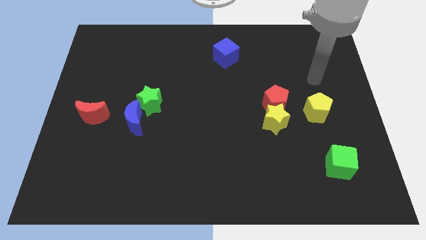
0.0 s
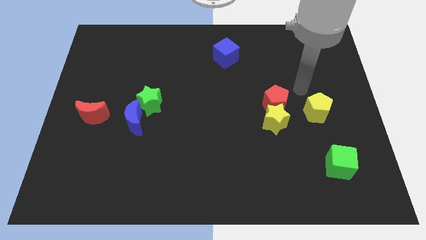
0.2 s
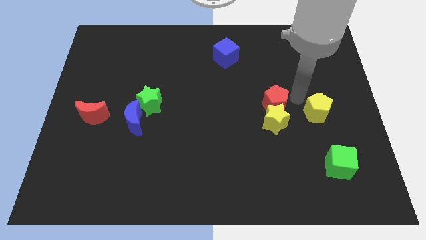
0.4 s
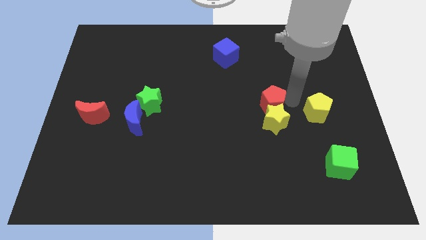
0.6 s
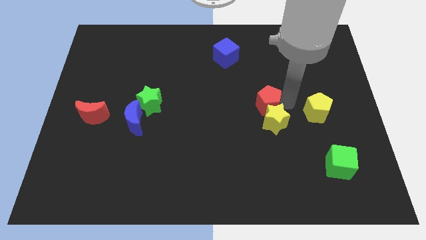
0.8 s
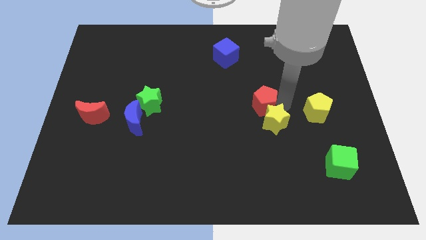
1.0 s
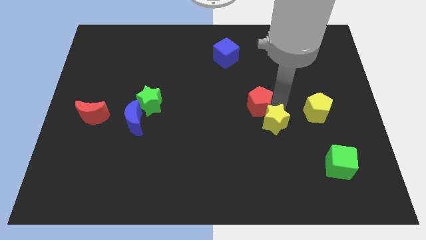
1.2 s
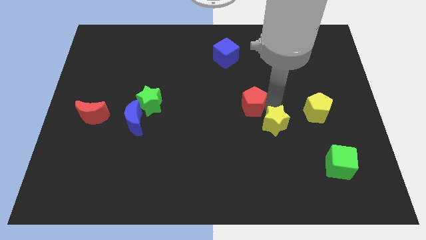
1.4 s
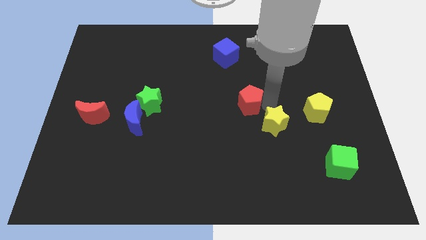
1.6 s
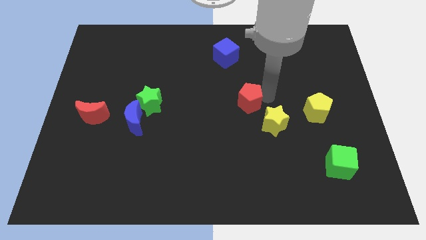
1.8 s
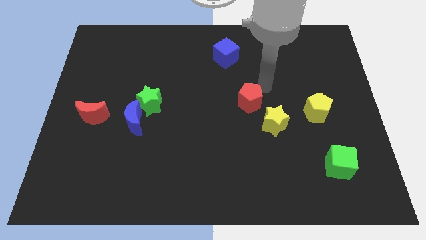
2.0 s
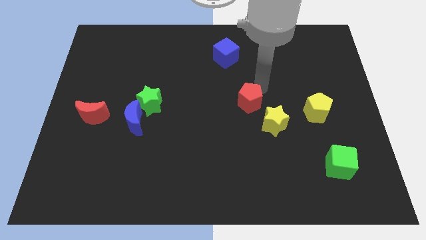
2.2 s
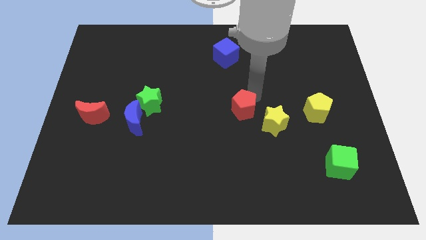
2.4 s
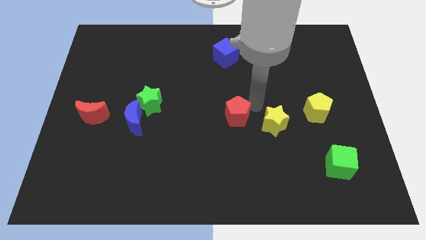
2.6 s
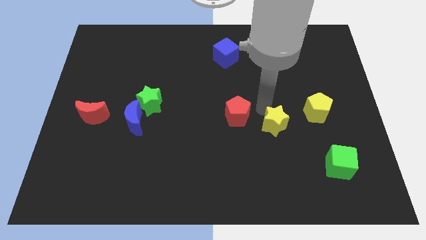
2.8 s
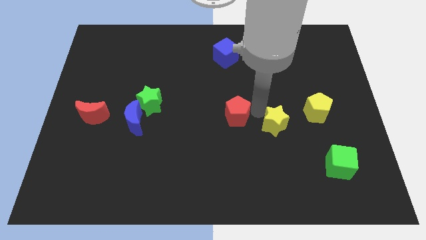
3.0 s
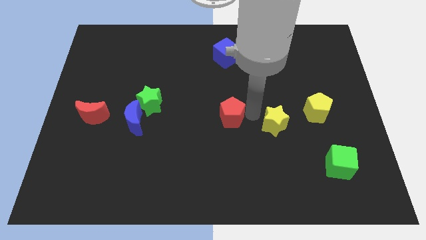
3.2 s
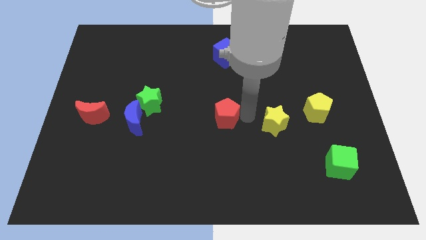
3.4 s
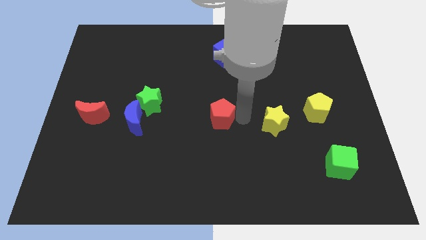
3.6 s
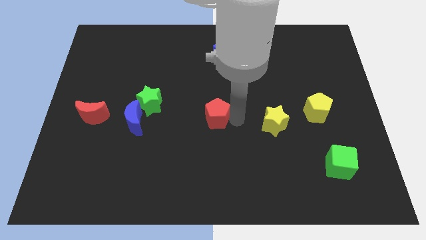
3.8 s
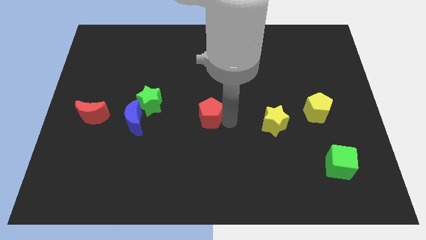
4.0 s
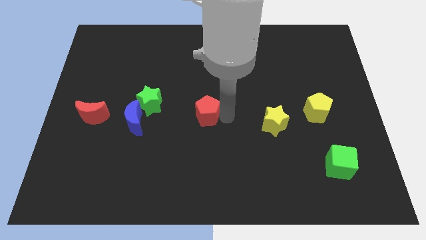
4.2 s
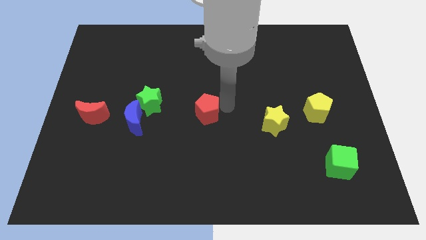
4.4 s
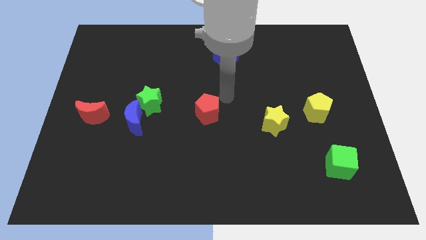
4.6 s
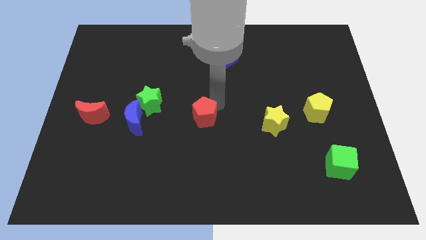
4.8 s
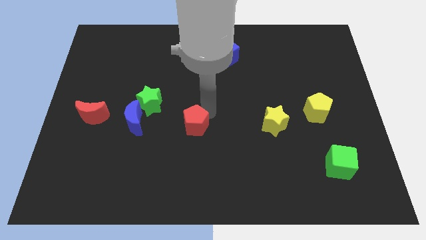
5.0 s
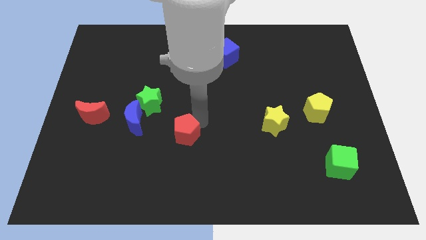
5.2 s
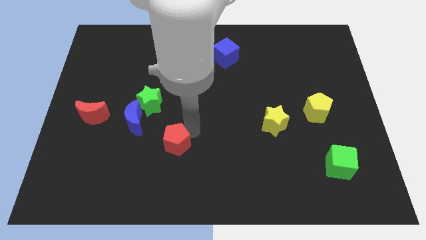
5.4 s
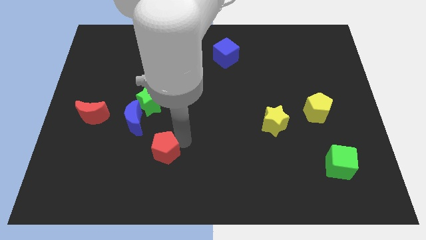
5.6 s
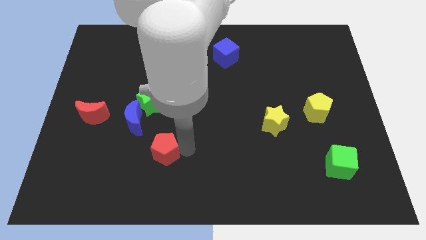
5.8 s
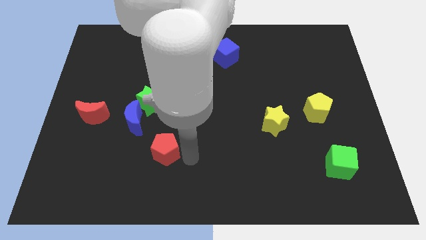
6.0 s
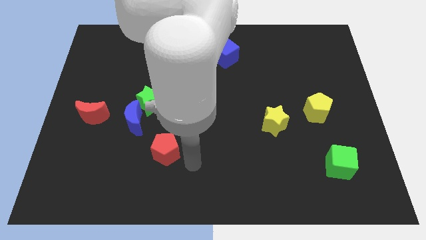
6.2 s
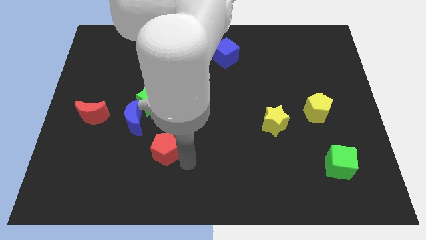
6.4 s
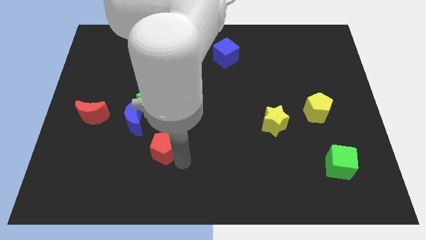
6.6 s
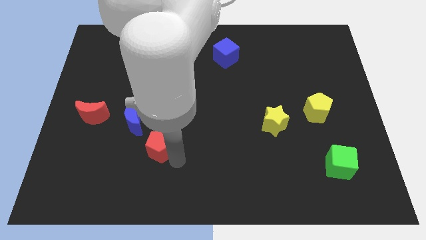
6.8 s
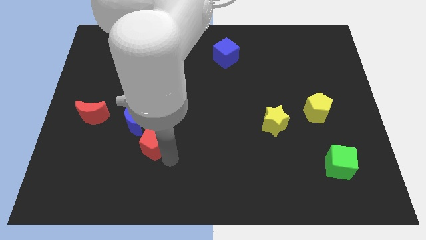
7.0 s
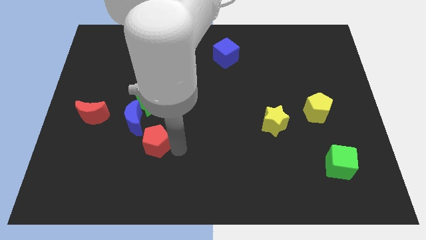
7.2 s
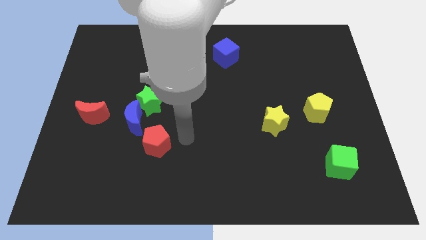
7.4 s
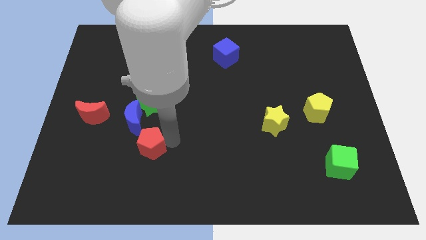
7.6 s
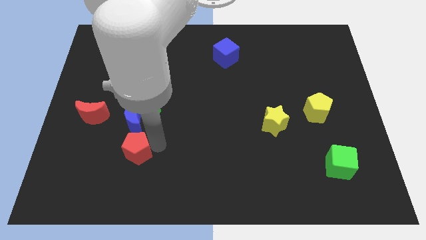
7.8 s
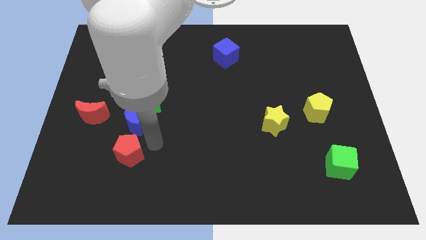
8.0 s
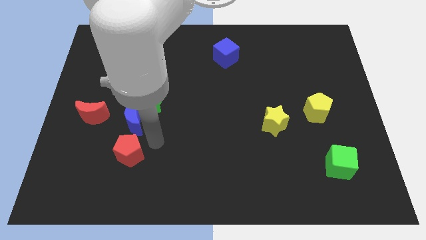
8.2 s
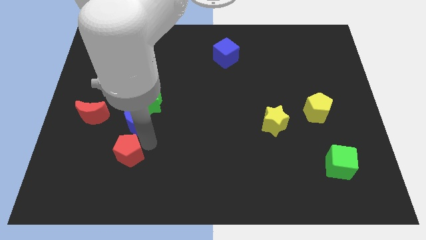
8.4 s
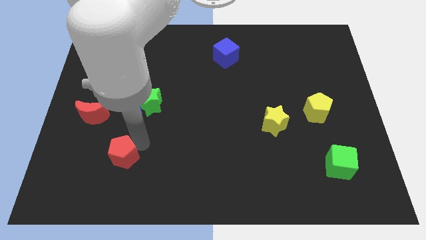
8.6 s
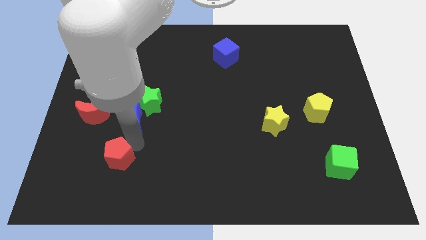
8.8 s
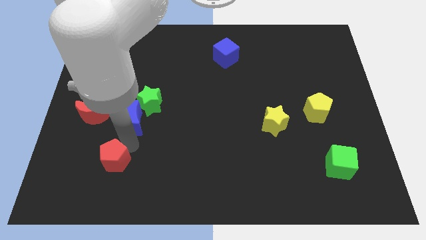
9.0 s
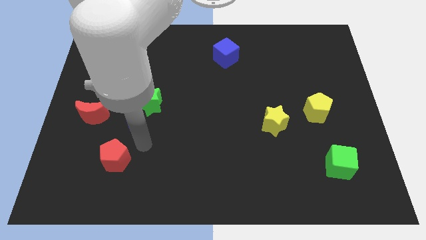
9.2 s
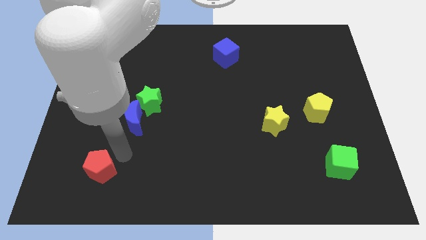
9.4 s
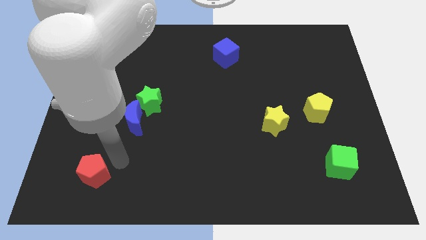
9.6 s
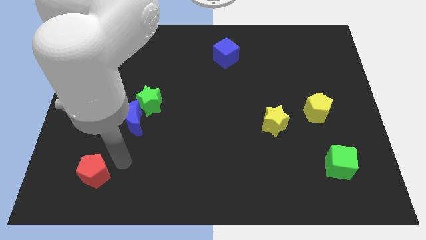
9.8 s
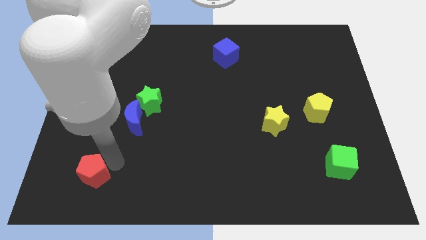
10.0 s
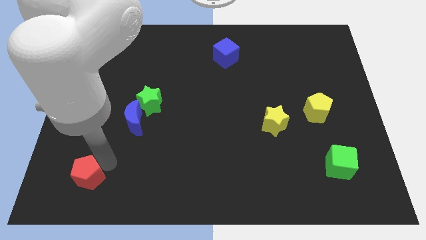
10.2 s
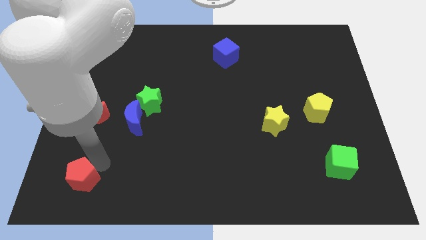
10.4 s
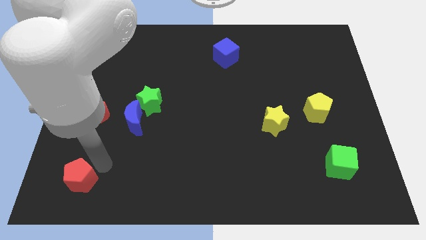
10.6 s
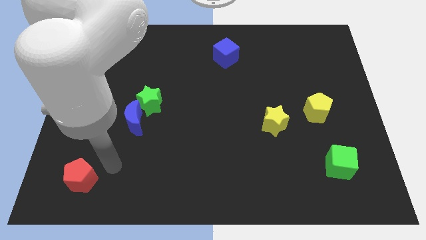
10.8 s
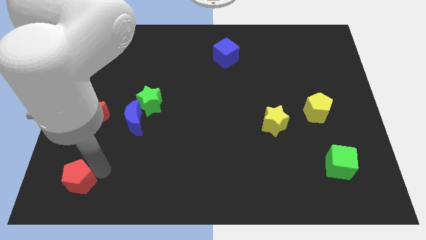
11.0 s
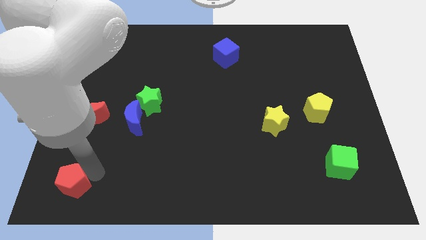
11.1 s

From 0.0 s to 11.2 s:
slide the red pentagon to the bottom left corner
